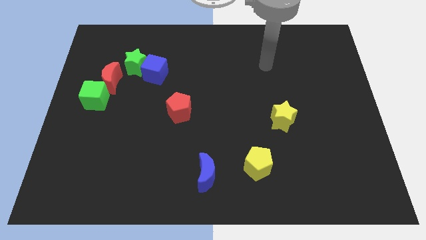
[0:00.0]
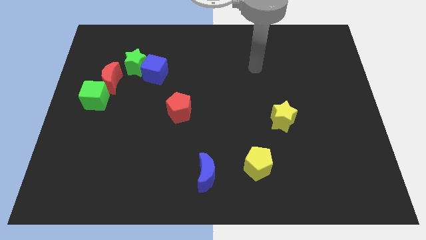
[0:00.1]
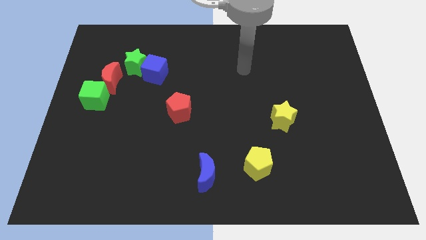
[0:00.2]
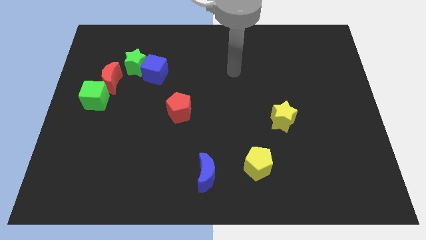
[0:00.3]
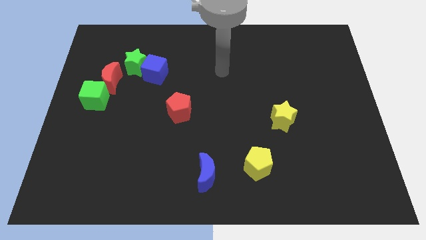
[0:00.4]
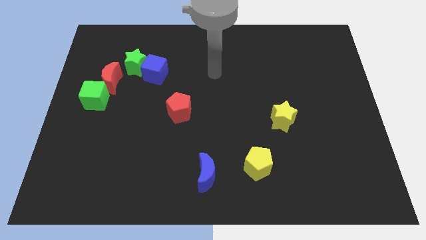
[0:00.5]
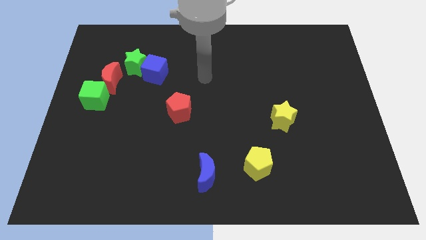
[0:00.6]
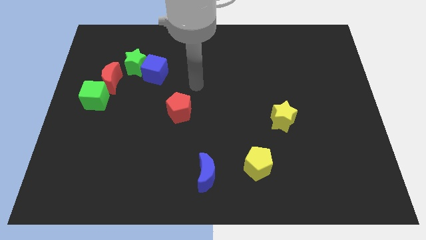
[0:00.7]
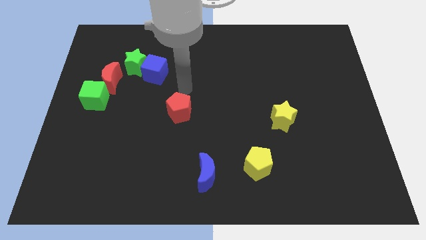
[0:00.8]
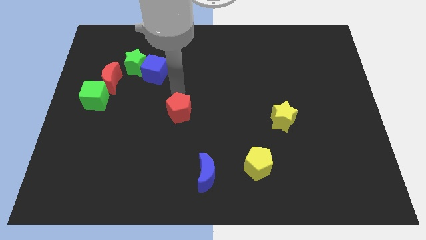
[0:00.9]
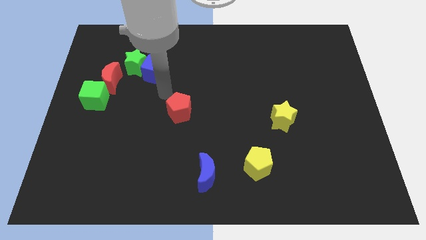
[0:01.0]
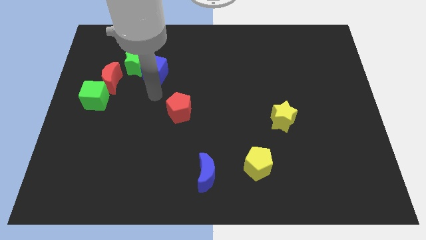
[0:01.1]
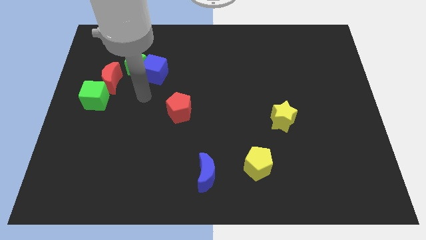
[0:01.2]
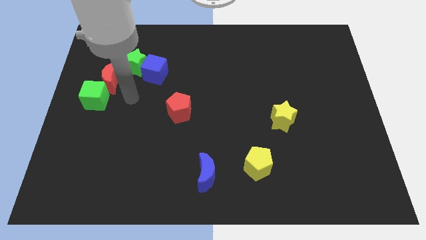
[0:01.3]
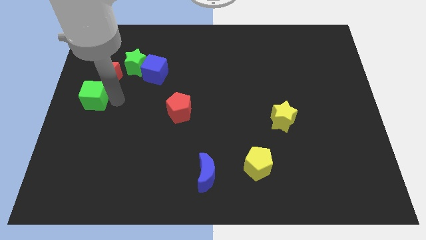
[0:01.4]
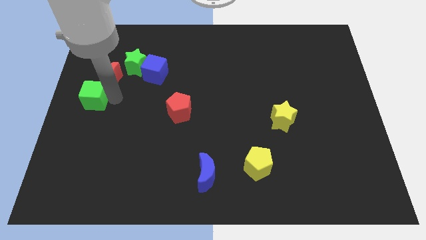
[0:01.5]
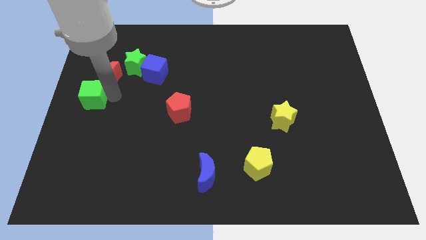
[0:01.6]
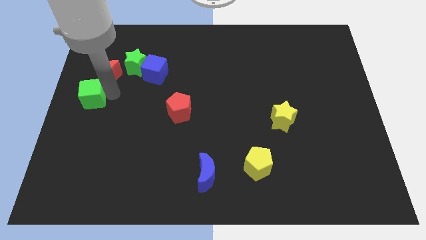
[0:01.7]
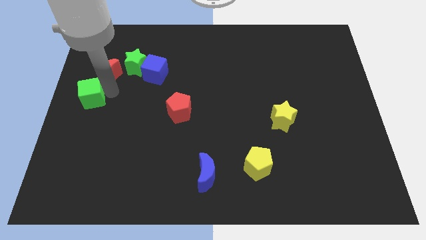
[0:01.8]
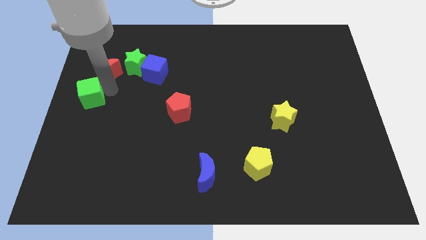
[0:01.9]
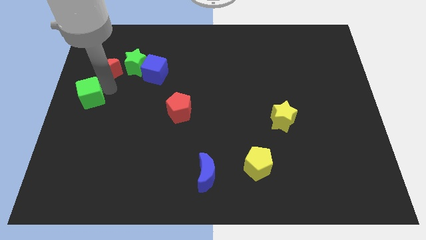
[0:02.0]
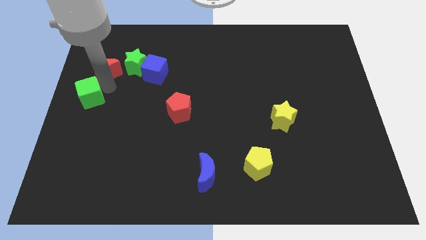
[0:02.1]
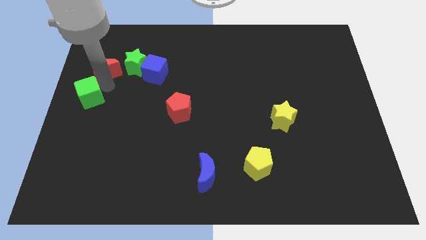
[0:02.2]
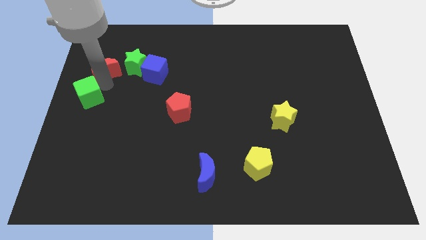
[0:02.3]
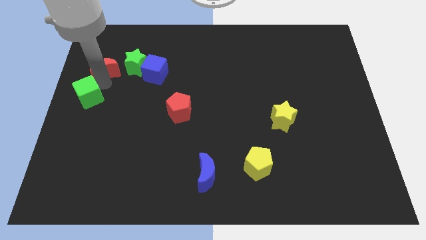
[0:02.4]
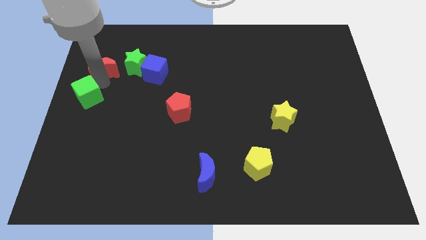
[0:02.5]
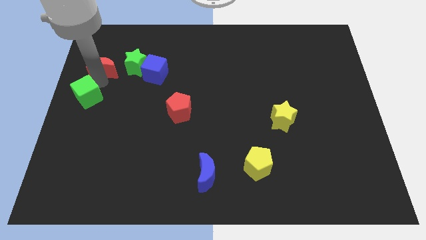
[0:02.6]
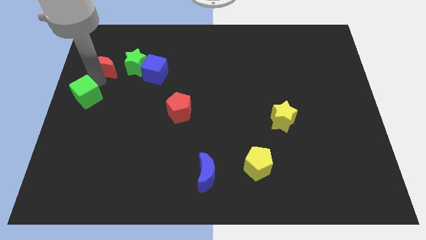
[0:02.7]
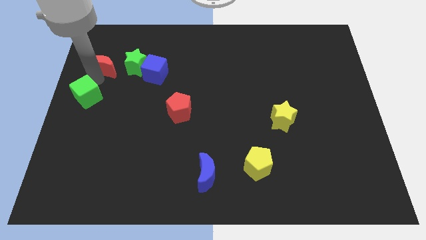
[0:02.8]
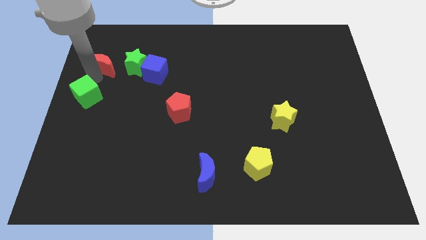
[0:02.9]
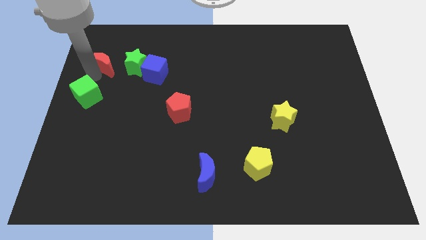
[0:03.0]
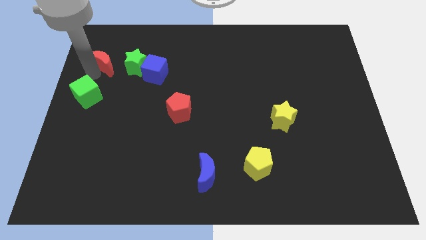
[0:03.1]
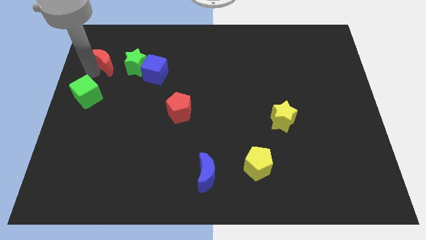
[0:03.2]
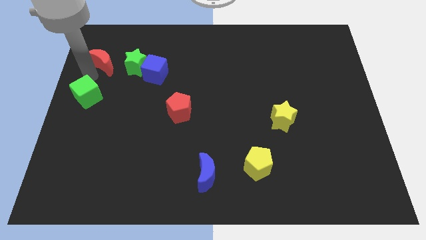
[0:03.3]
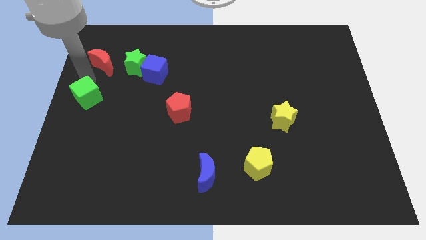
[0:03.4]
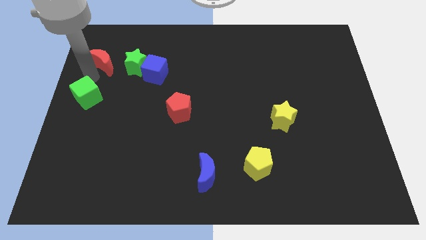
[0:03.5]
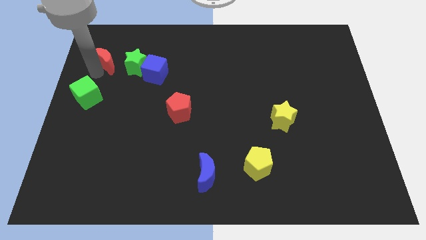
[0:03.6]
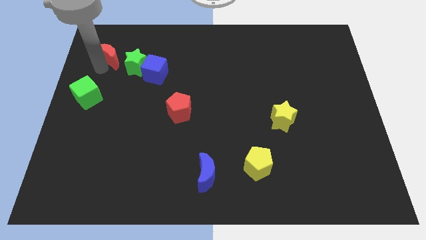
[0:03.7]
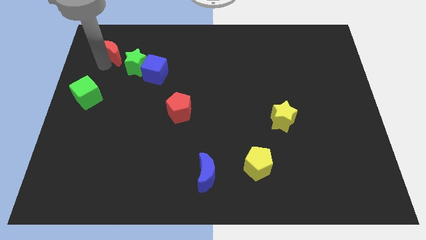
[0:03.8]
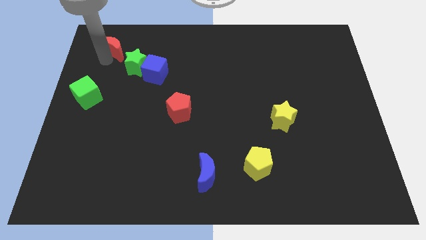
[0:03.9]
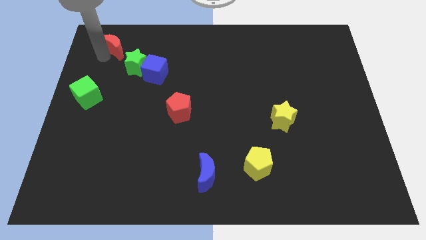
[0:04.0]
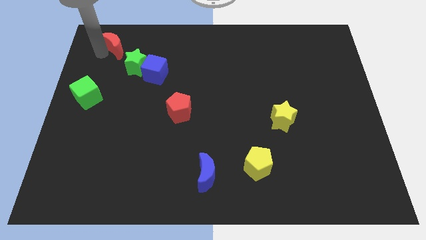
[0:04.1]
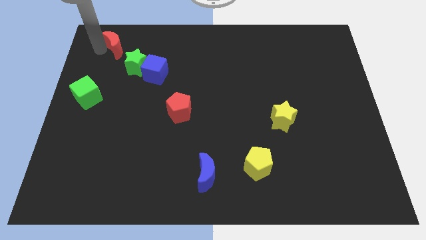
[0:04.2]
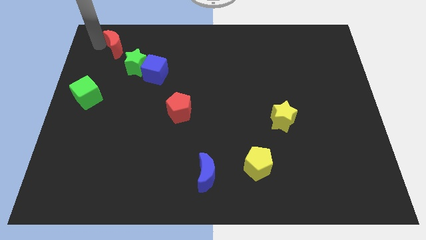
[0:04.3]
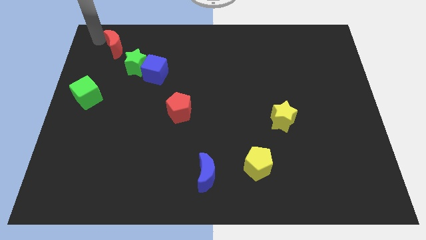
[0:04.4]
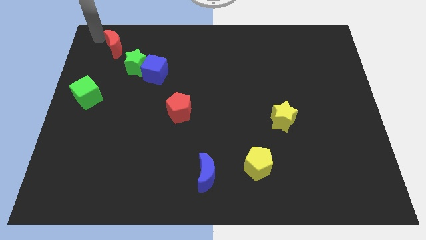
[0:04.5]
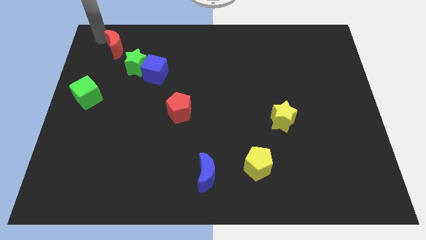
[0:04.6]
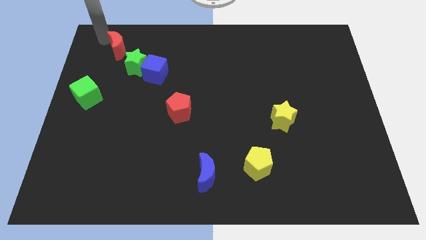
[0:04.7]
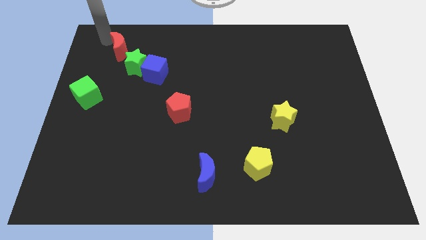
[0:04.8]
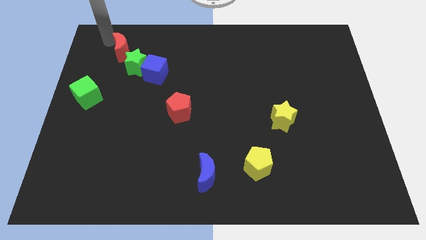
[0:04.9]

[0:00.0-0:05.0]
move the red moon to the top left of the blue cube

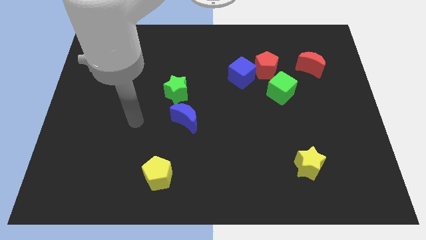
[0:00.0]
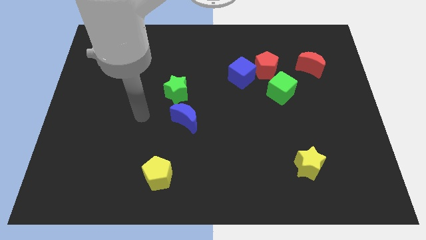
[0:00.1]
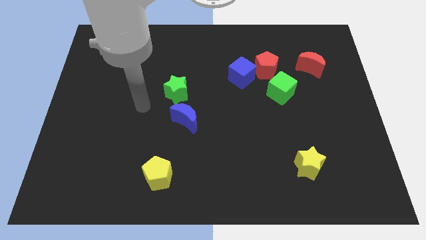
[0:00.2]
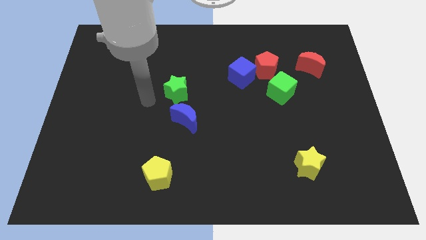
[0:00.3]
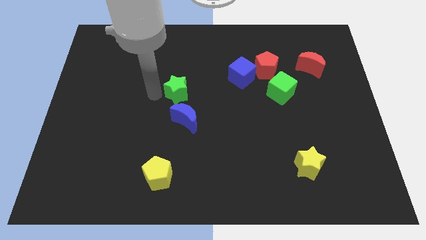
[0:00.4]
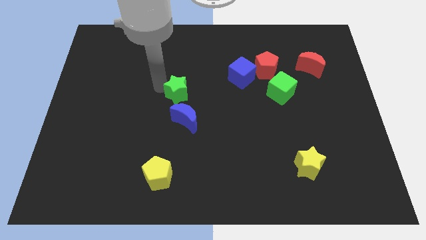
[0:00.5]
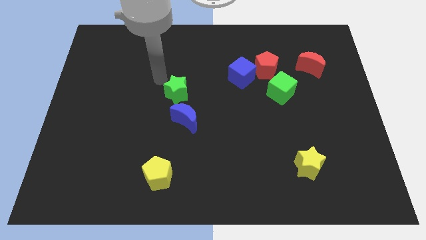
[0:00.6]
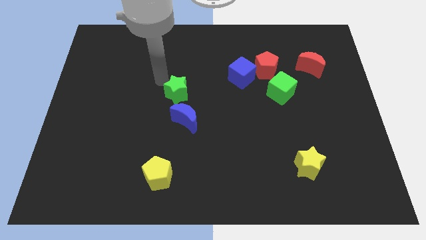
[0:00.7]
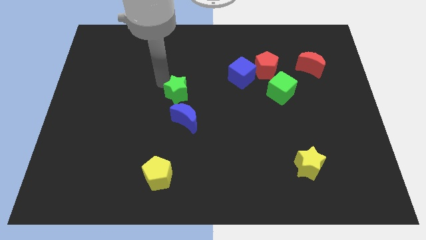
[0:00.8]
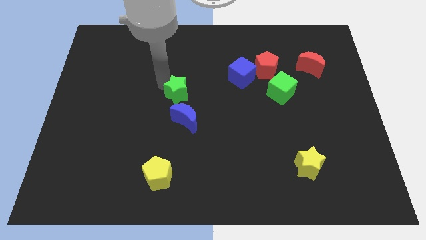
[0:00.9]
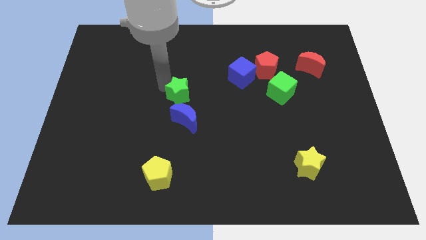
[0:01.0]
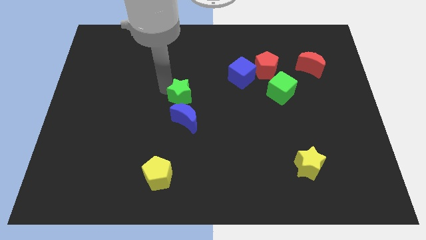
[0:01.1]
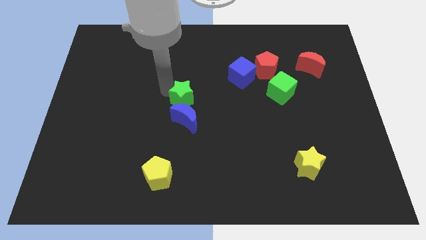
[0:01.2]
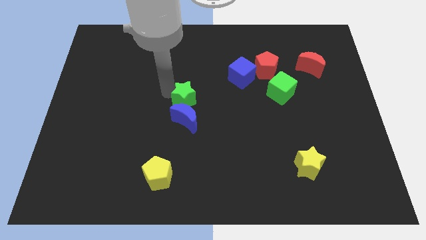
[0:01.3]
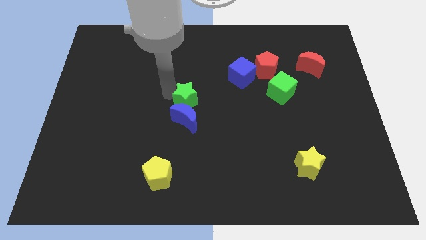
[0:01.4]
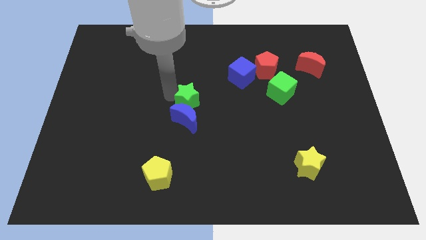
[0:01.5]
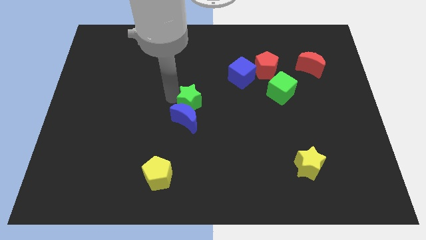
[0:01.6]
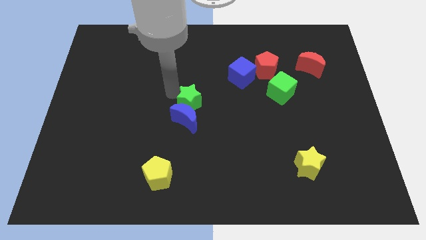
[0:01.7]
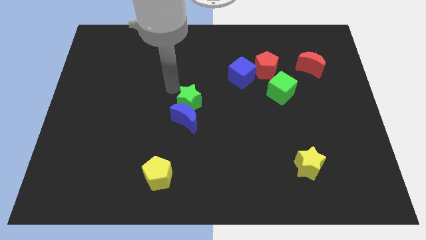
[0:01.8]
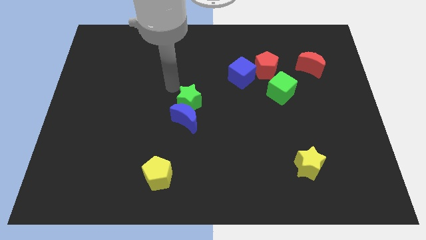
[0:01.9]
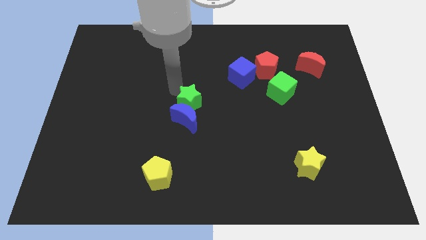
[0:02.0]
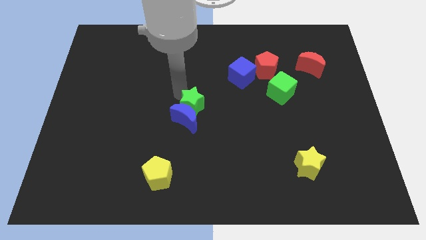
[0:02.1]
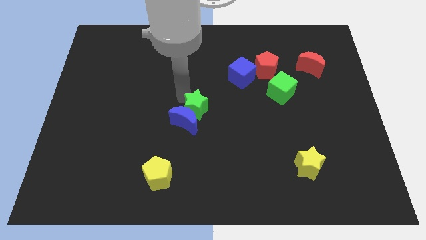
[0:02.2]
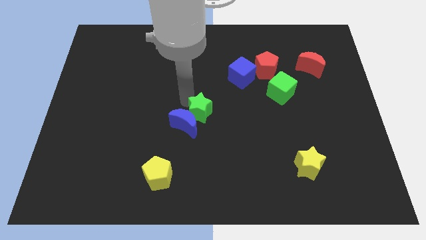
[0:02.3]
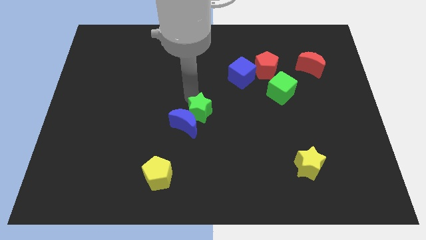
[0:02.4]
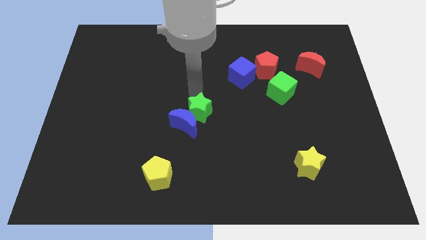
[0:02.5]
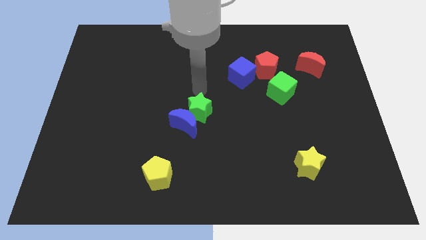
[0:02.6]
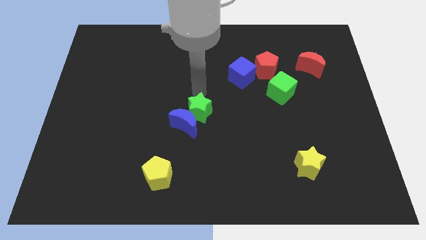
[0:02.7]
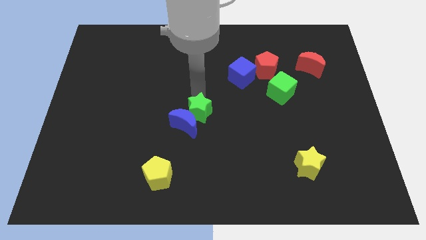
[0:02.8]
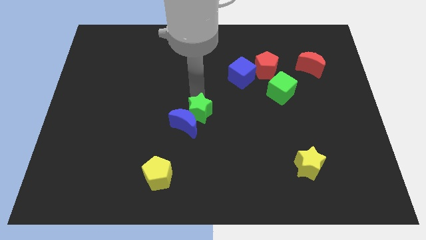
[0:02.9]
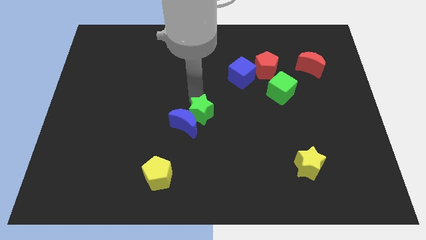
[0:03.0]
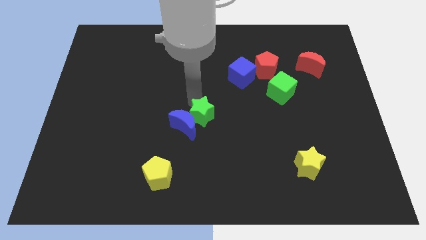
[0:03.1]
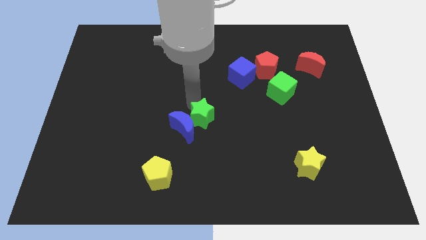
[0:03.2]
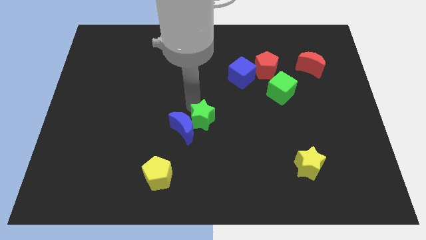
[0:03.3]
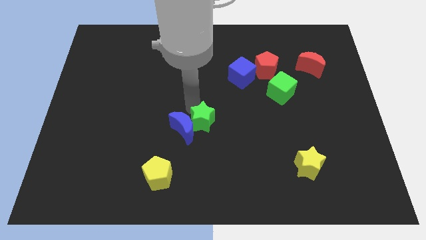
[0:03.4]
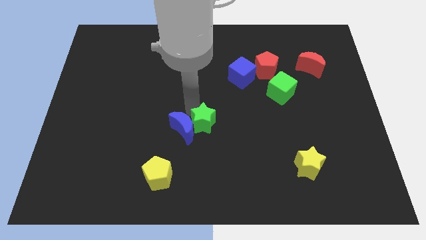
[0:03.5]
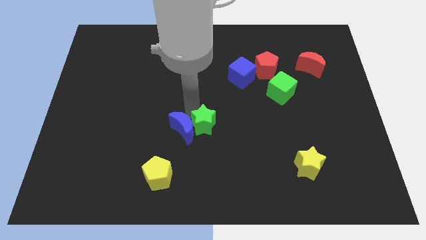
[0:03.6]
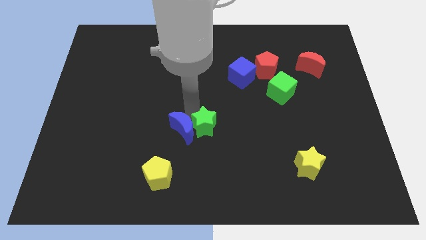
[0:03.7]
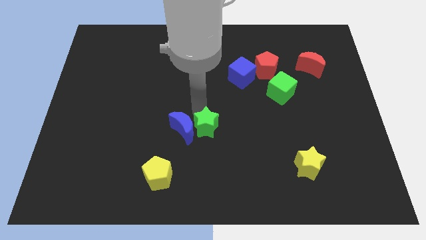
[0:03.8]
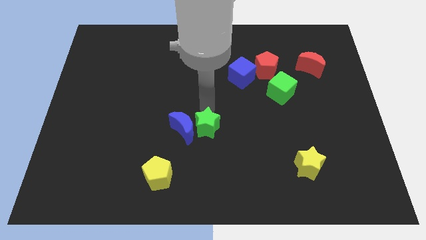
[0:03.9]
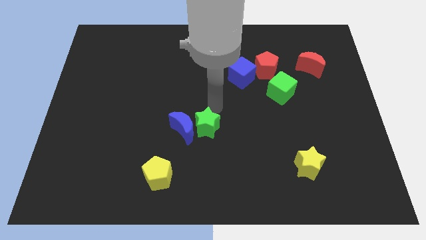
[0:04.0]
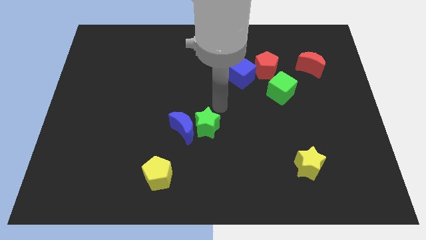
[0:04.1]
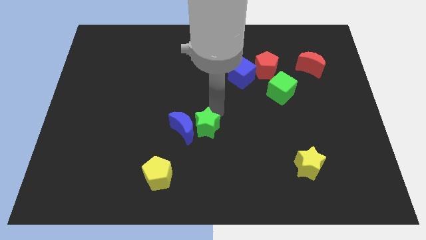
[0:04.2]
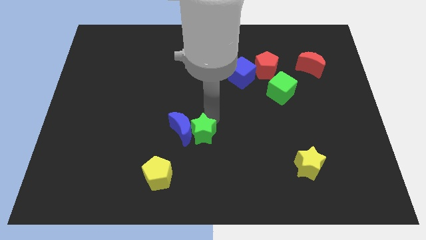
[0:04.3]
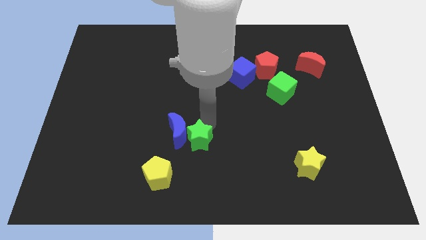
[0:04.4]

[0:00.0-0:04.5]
put the green star to the top right side of the yellow pentagon
